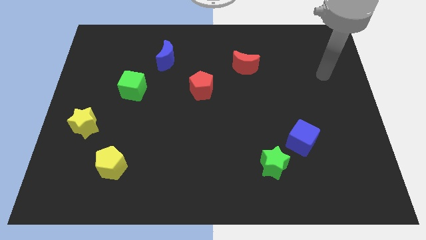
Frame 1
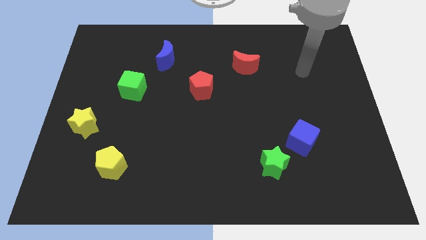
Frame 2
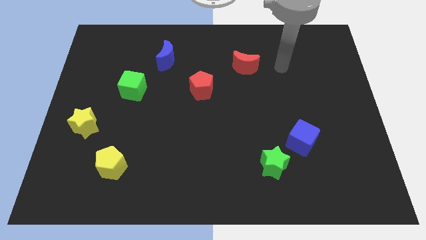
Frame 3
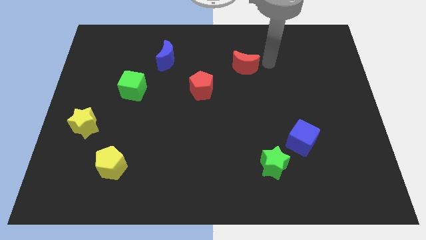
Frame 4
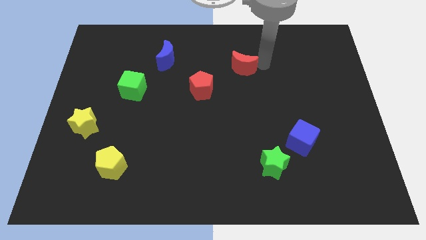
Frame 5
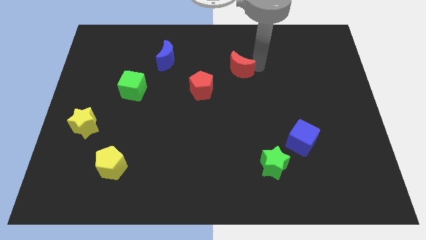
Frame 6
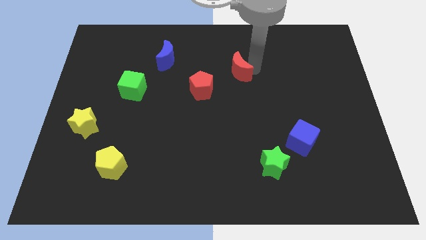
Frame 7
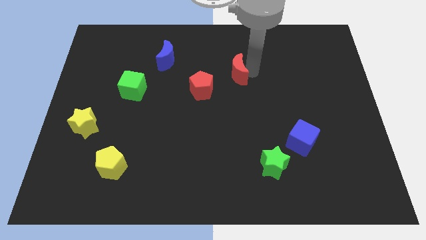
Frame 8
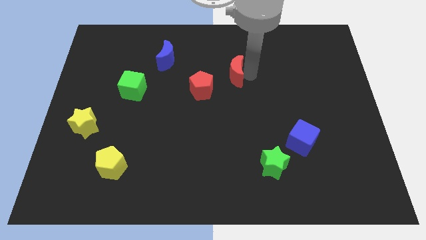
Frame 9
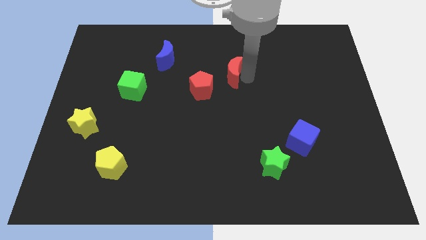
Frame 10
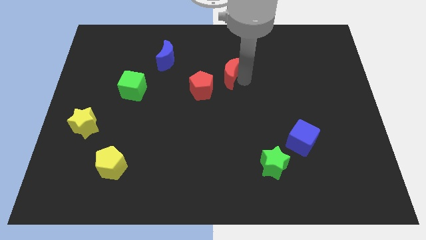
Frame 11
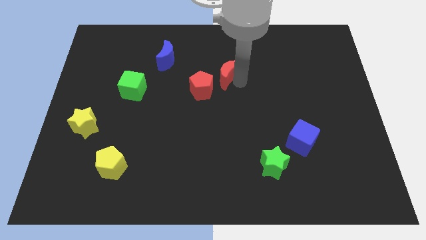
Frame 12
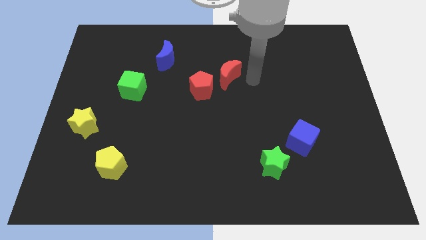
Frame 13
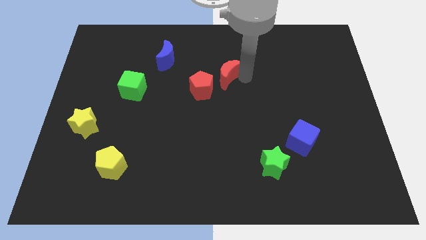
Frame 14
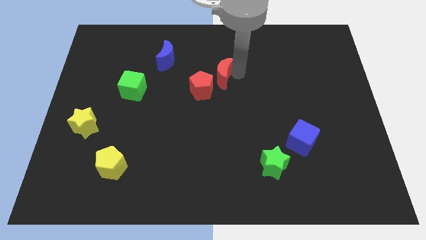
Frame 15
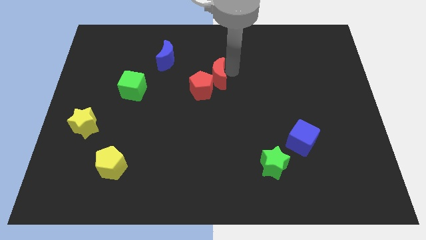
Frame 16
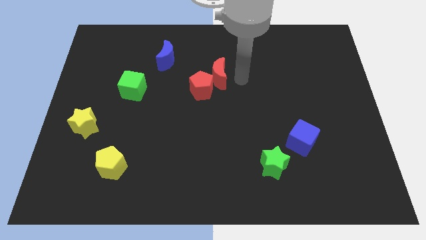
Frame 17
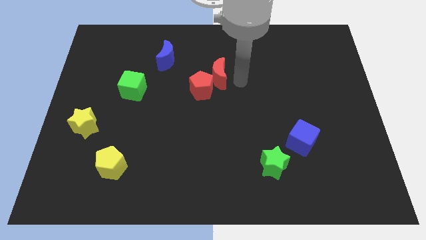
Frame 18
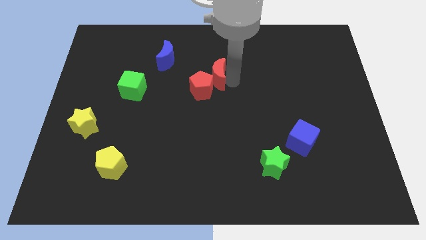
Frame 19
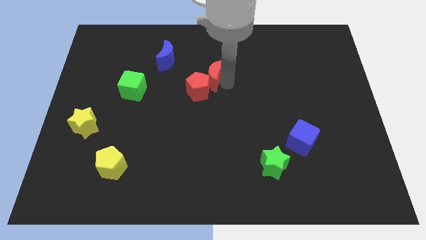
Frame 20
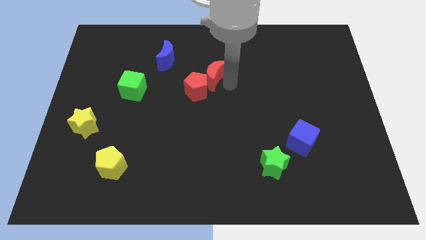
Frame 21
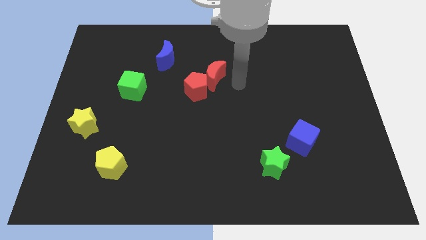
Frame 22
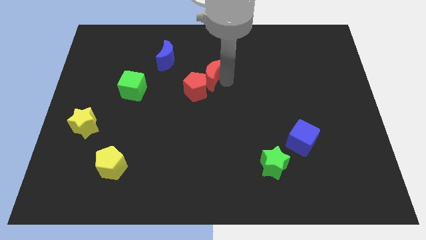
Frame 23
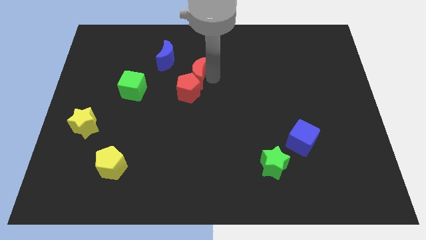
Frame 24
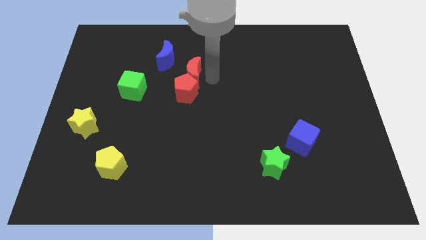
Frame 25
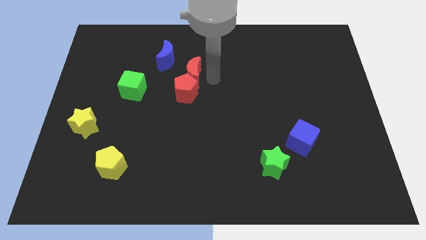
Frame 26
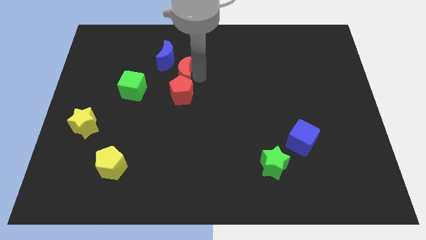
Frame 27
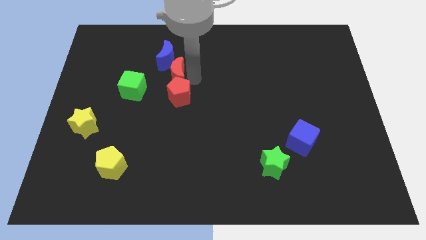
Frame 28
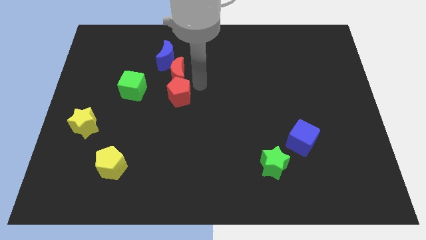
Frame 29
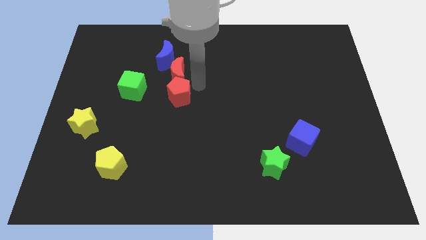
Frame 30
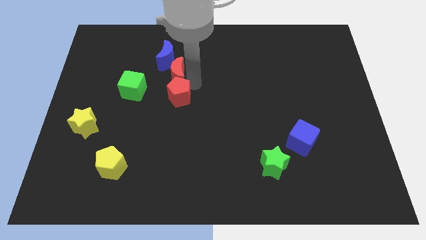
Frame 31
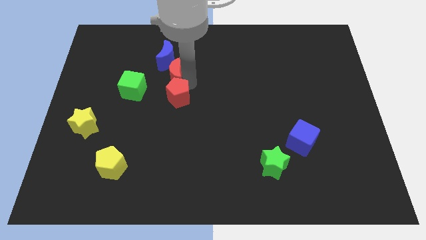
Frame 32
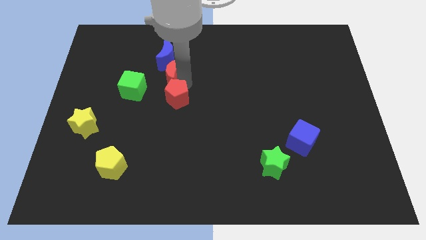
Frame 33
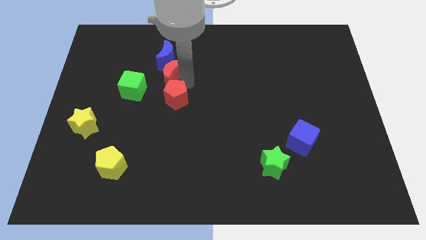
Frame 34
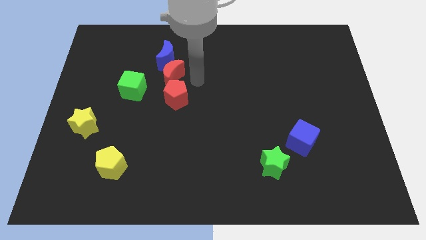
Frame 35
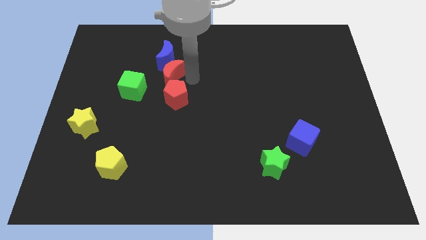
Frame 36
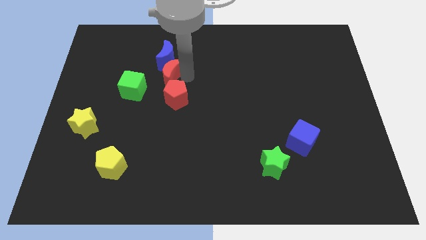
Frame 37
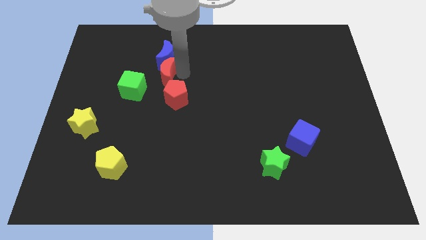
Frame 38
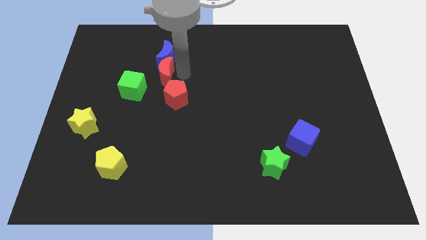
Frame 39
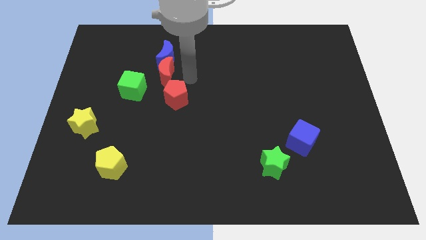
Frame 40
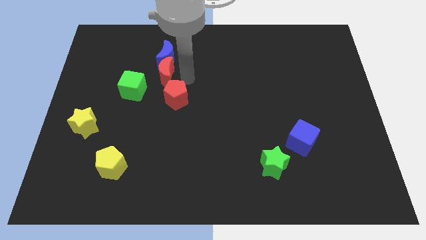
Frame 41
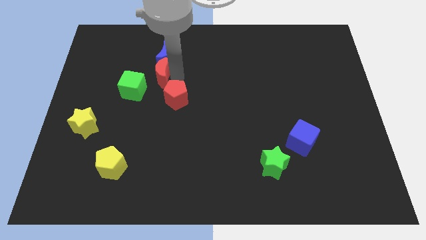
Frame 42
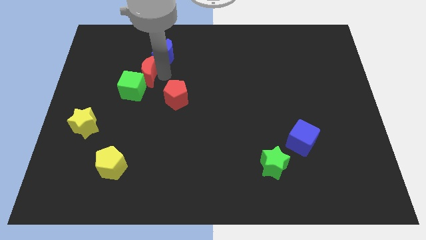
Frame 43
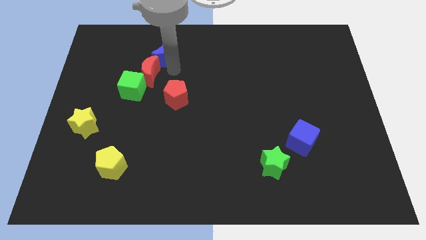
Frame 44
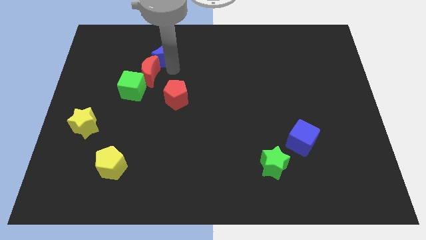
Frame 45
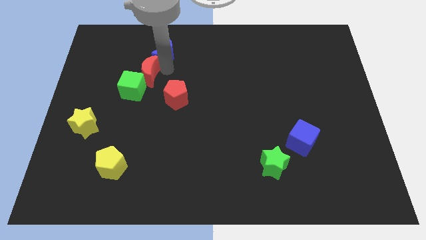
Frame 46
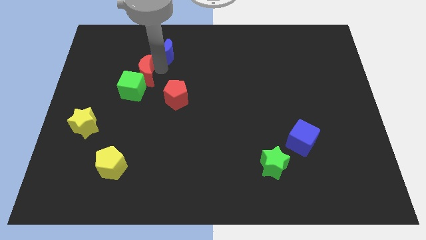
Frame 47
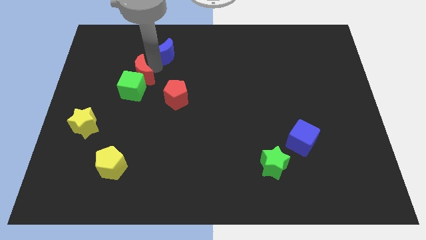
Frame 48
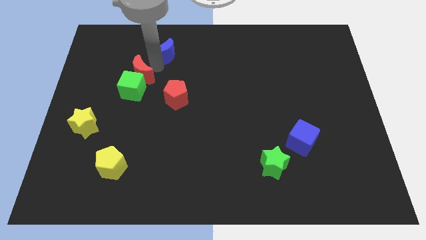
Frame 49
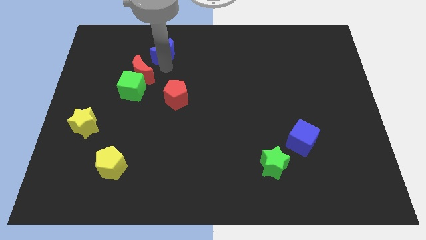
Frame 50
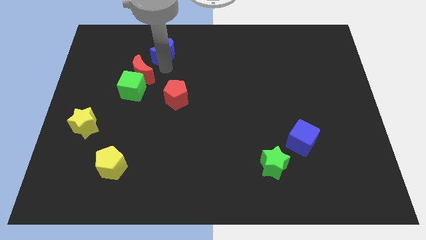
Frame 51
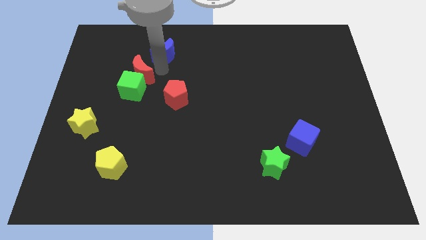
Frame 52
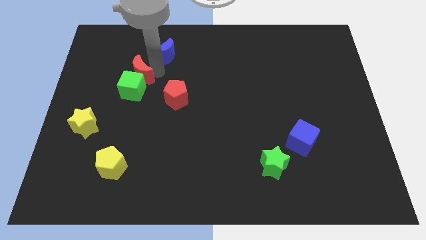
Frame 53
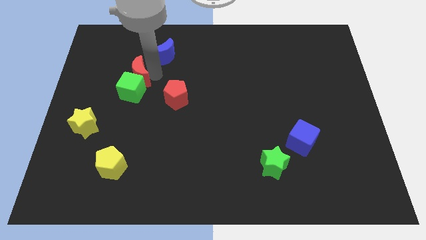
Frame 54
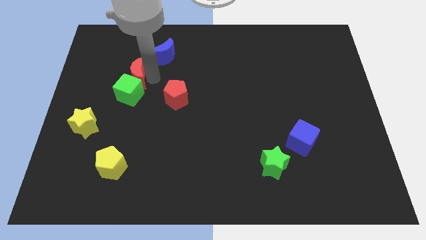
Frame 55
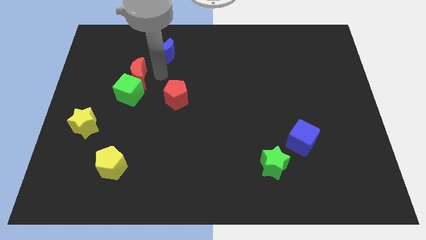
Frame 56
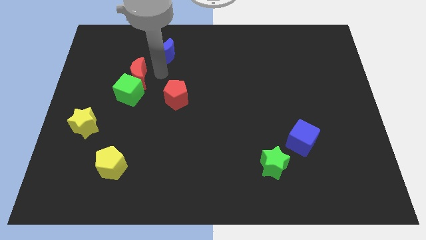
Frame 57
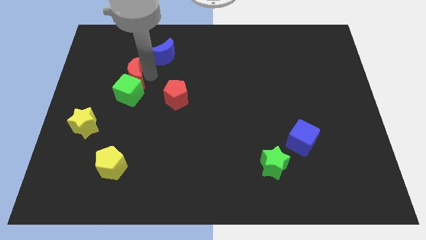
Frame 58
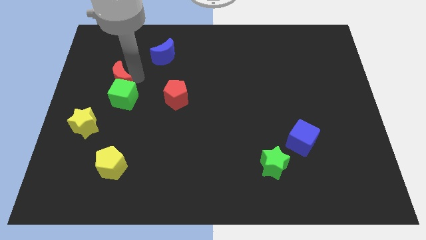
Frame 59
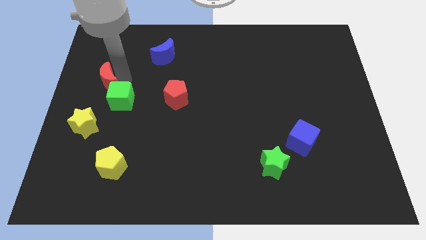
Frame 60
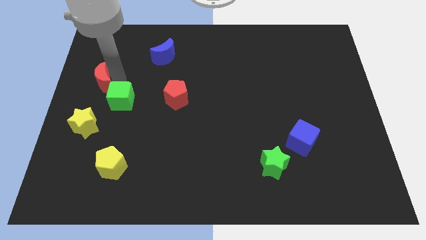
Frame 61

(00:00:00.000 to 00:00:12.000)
slide the red moon to the left side of the board

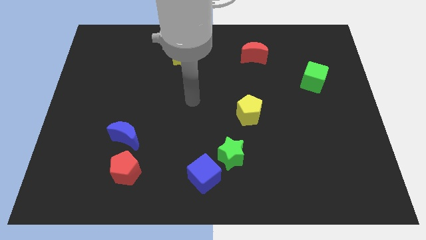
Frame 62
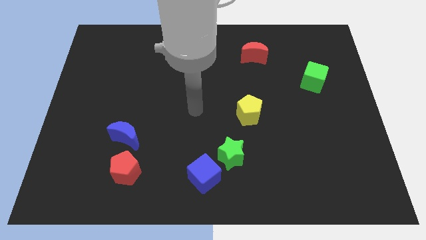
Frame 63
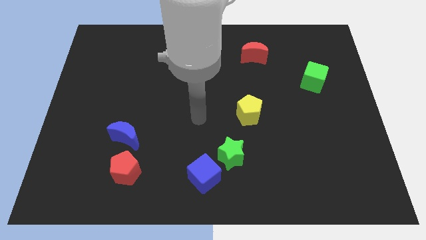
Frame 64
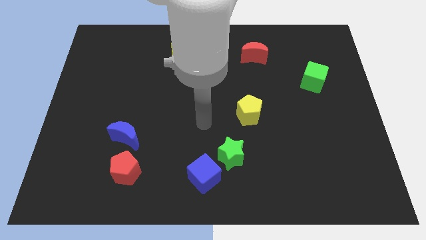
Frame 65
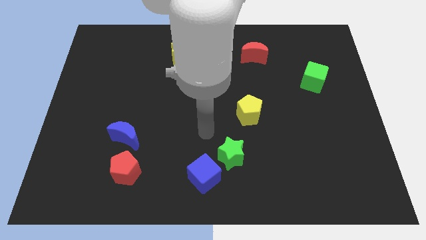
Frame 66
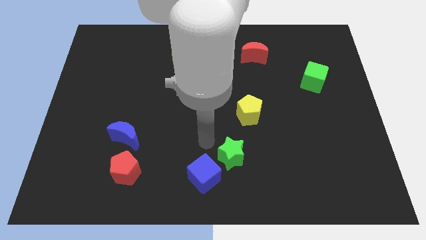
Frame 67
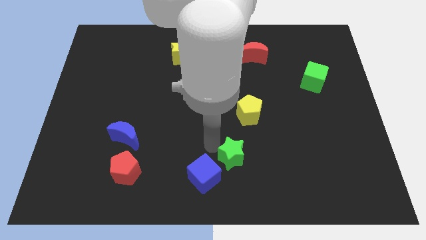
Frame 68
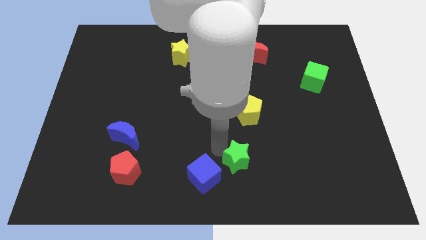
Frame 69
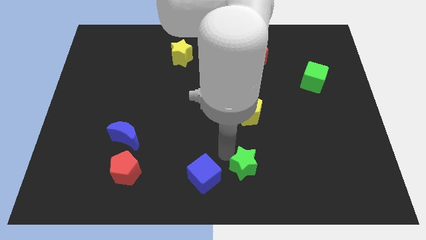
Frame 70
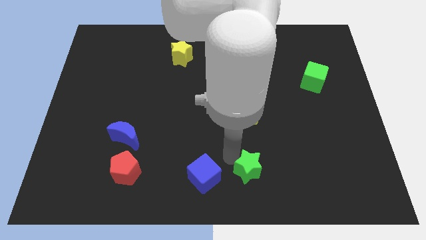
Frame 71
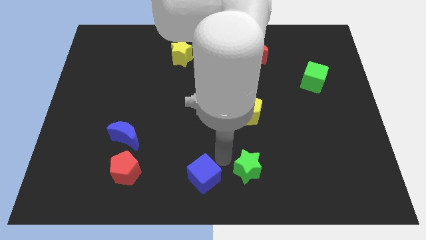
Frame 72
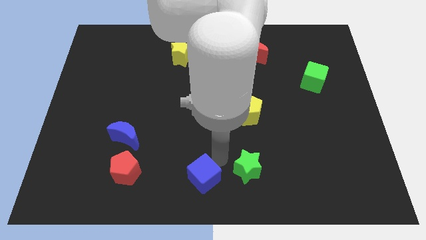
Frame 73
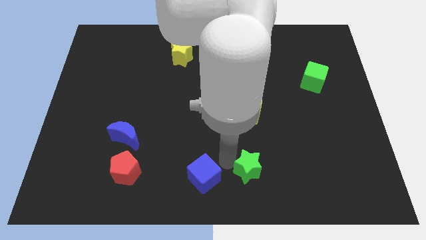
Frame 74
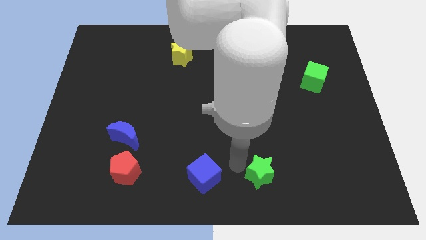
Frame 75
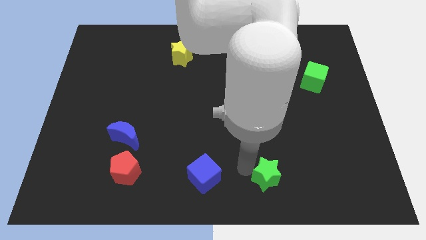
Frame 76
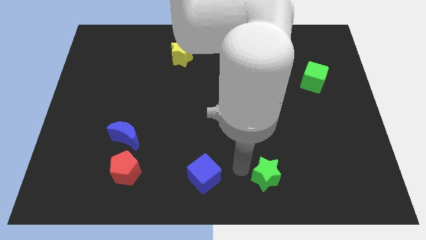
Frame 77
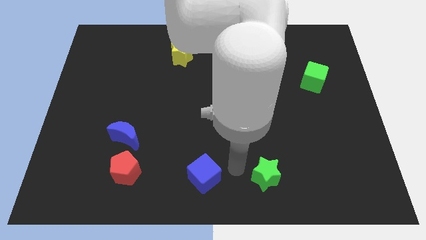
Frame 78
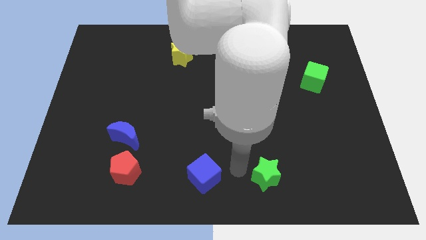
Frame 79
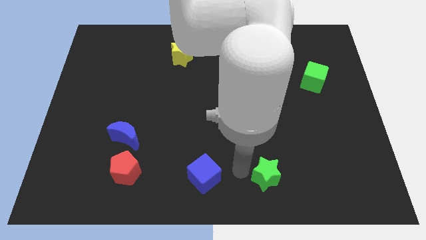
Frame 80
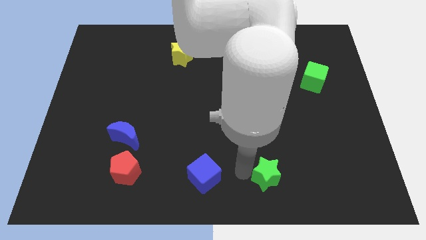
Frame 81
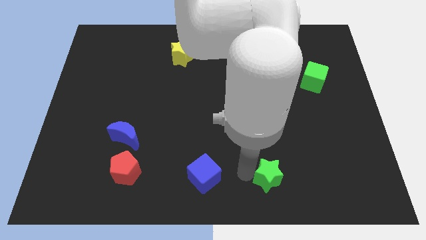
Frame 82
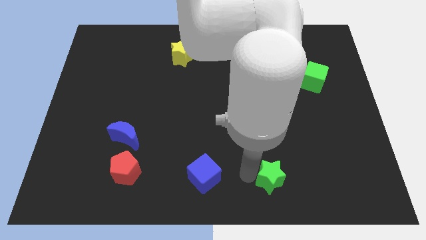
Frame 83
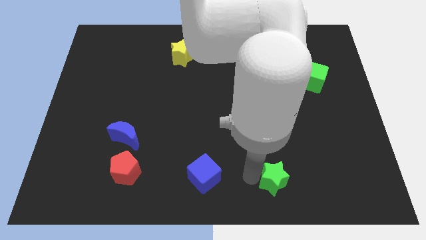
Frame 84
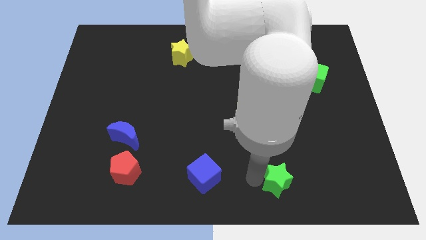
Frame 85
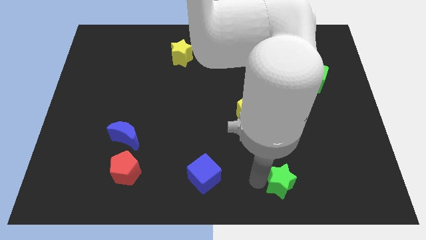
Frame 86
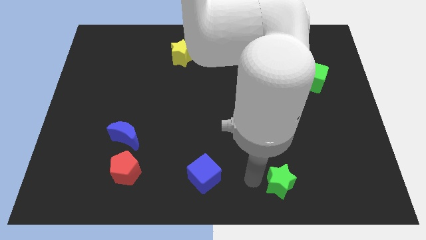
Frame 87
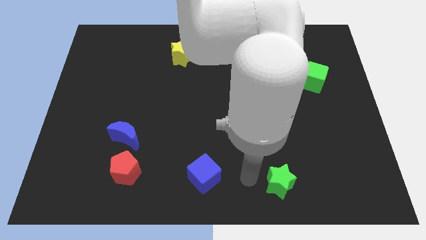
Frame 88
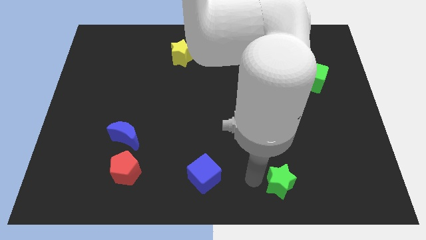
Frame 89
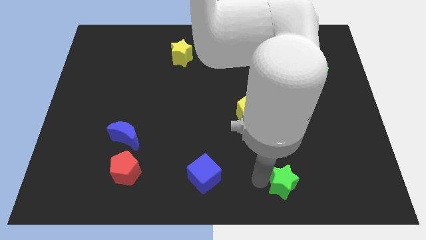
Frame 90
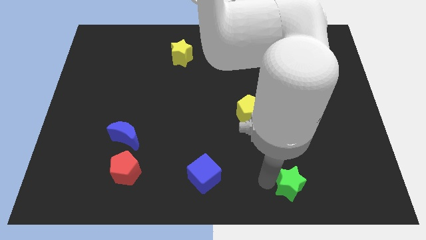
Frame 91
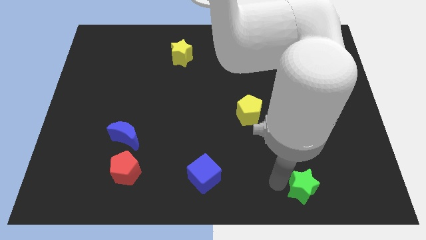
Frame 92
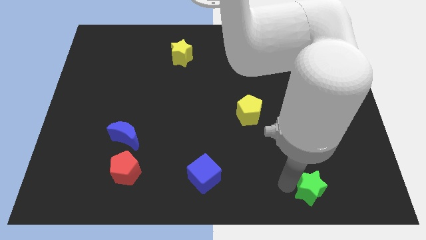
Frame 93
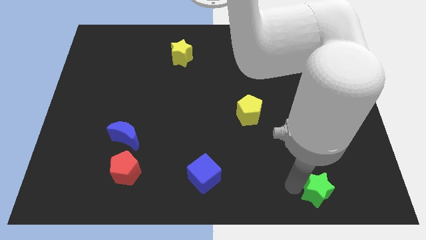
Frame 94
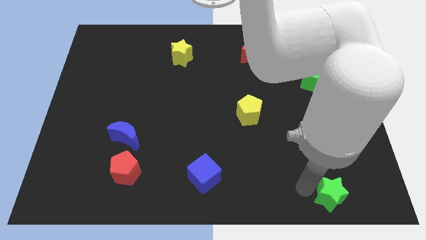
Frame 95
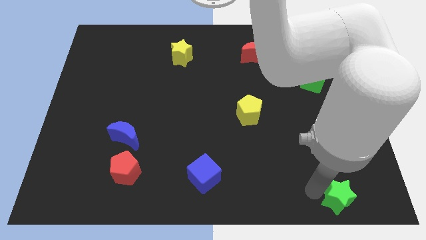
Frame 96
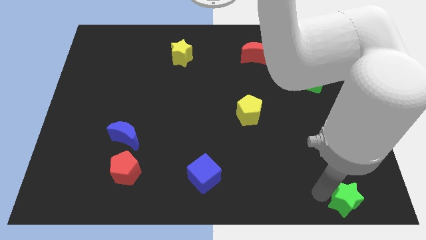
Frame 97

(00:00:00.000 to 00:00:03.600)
push the green star to the bottom right corner
